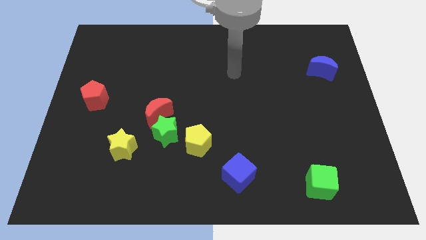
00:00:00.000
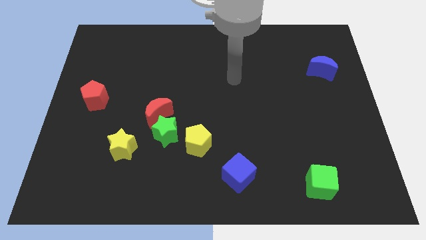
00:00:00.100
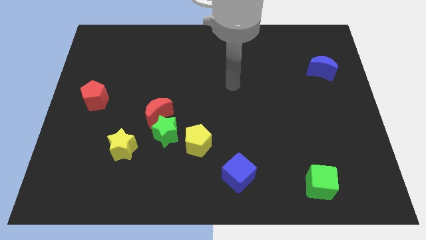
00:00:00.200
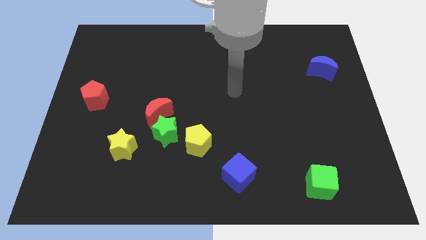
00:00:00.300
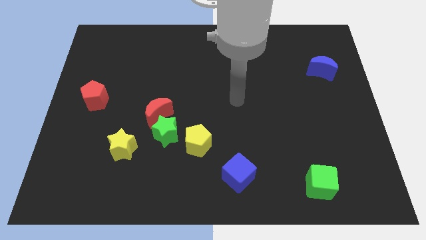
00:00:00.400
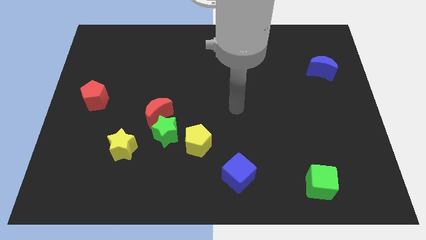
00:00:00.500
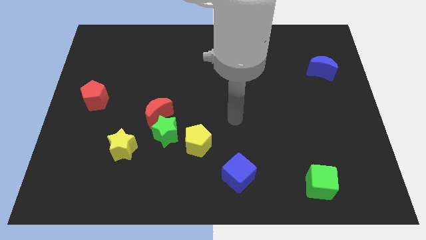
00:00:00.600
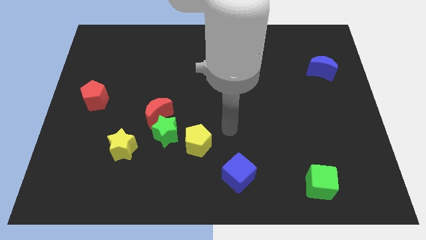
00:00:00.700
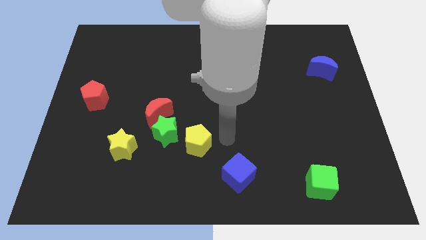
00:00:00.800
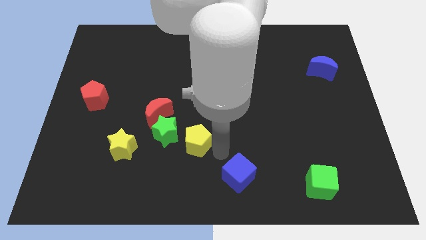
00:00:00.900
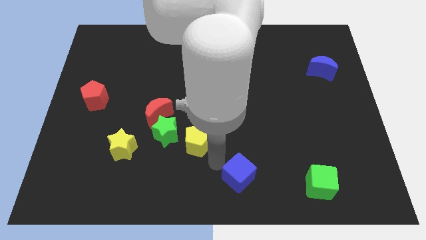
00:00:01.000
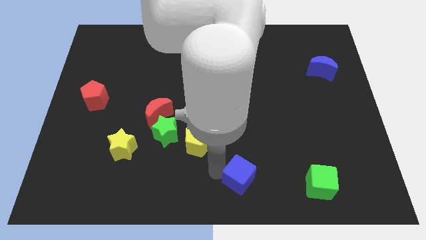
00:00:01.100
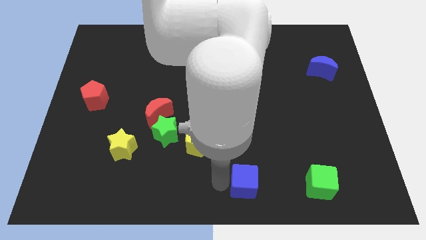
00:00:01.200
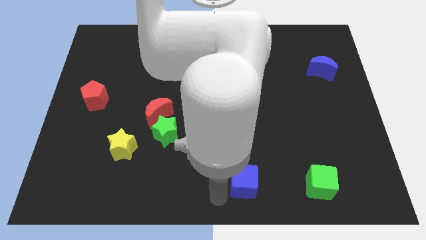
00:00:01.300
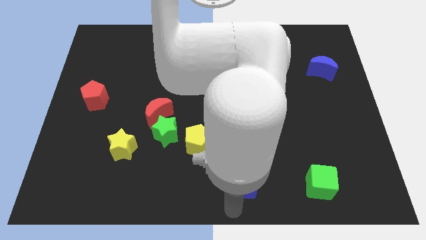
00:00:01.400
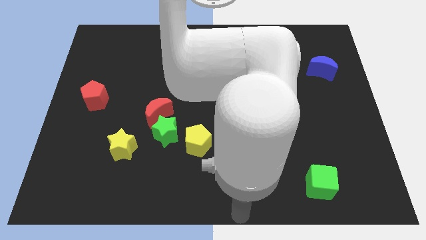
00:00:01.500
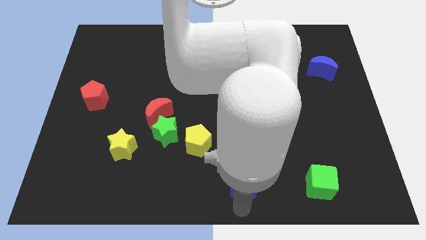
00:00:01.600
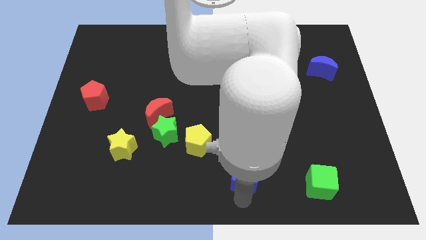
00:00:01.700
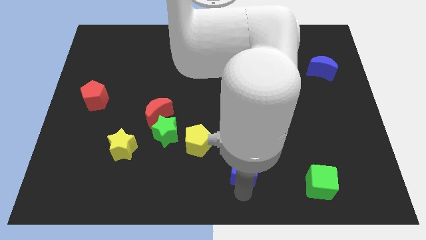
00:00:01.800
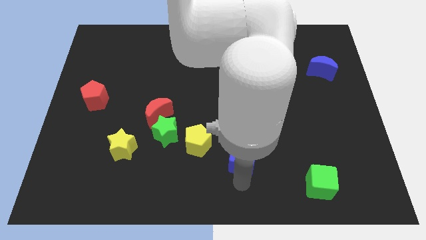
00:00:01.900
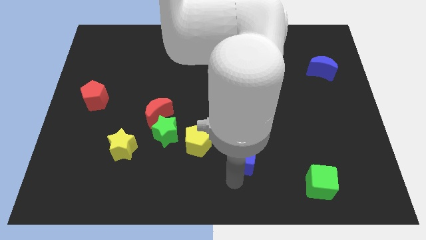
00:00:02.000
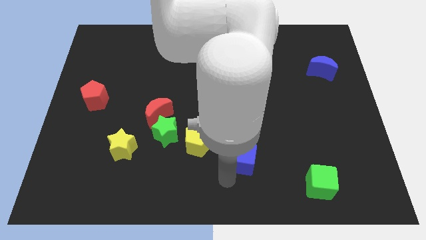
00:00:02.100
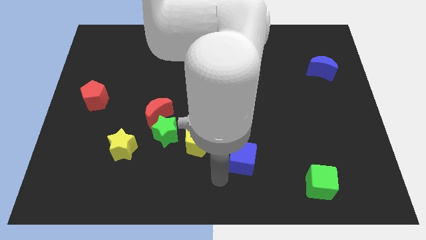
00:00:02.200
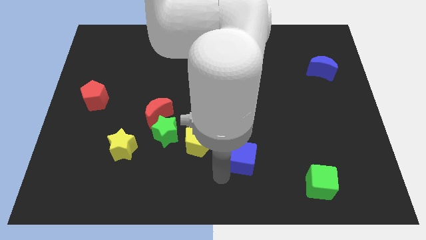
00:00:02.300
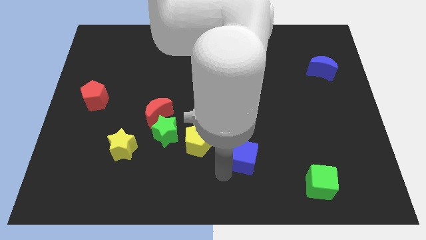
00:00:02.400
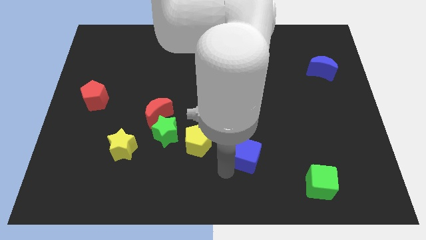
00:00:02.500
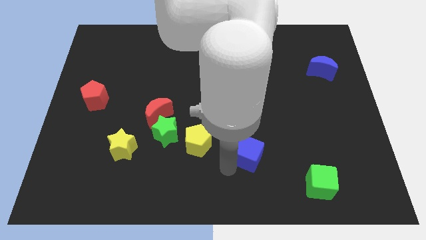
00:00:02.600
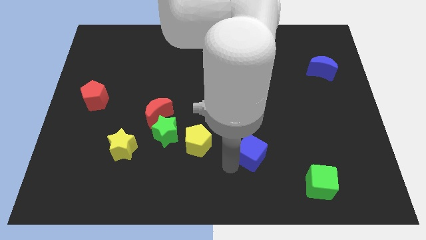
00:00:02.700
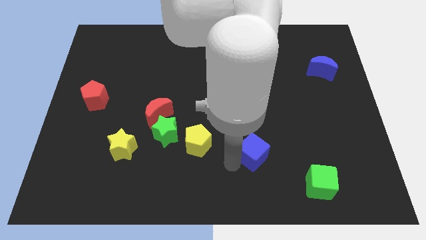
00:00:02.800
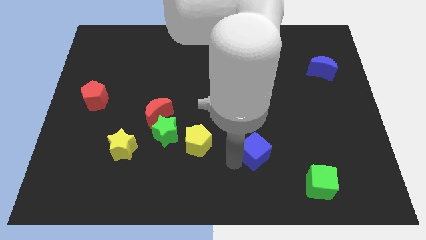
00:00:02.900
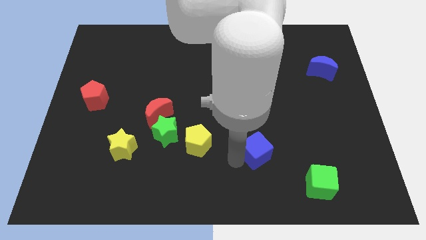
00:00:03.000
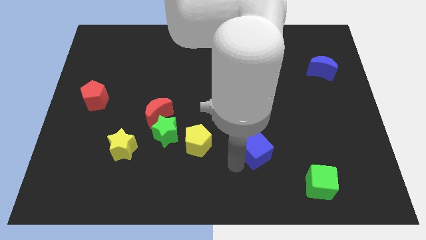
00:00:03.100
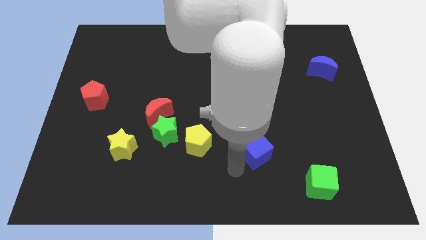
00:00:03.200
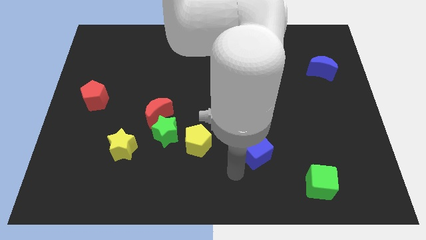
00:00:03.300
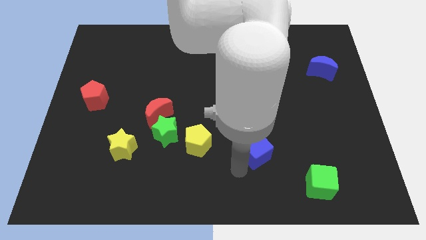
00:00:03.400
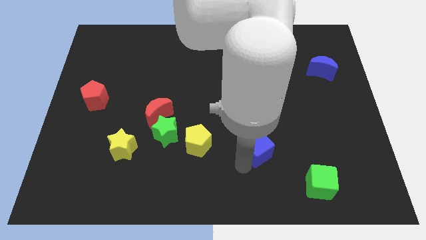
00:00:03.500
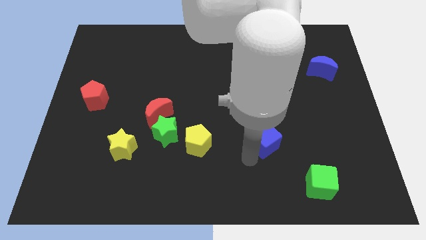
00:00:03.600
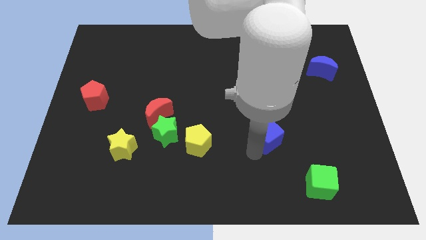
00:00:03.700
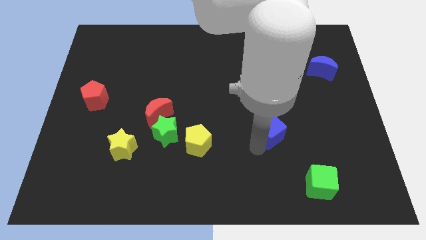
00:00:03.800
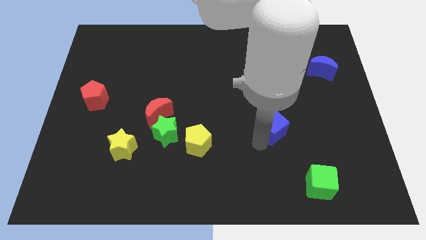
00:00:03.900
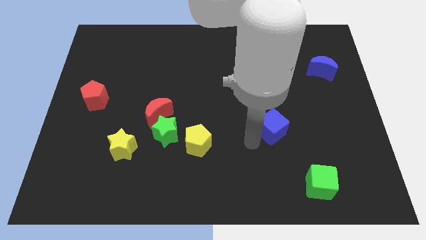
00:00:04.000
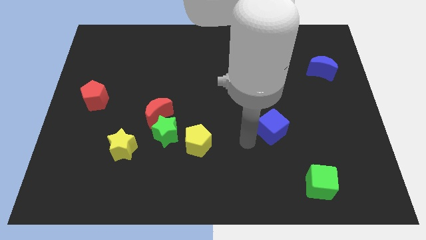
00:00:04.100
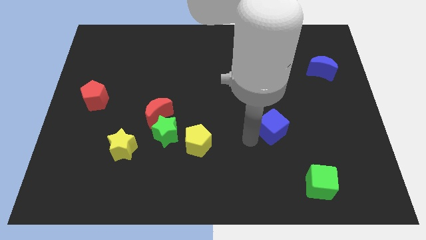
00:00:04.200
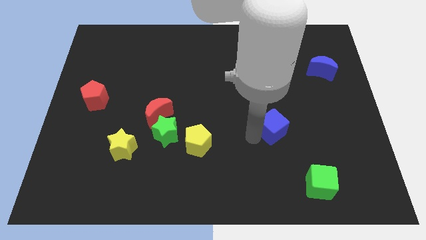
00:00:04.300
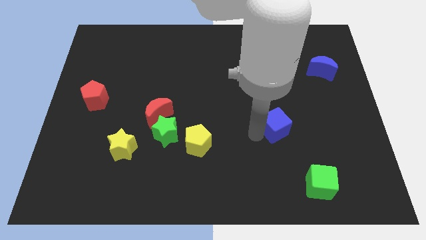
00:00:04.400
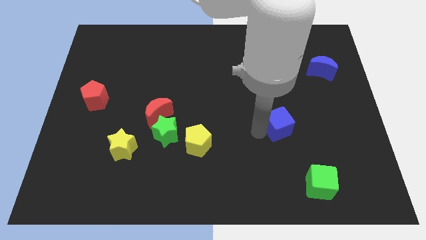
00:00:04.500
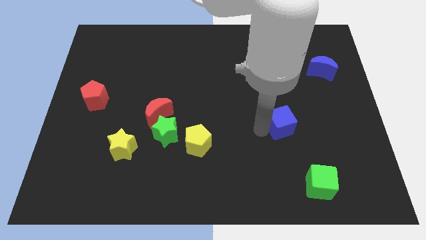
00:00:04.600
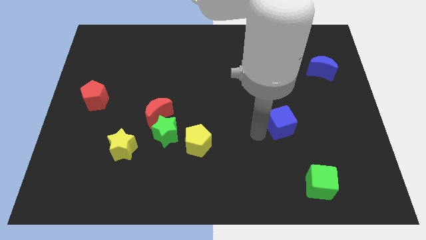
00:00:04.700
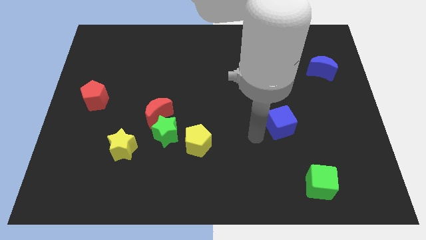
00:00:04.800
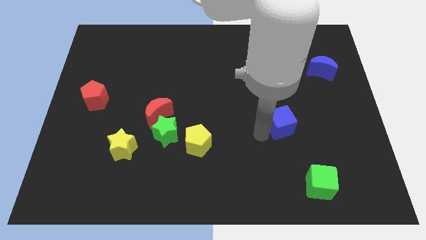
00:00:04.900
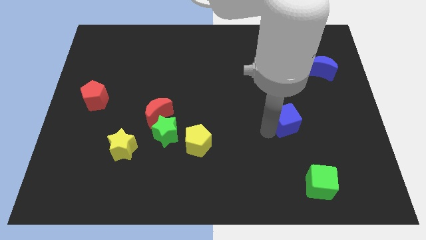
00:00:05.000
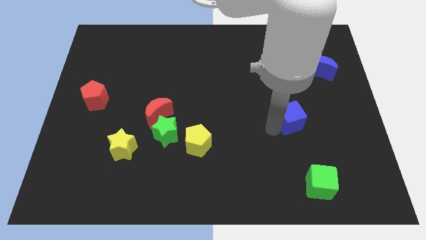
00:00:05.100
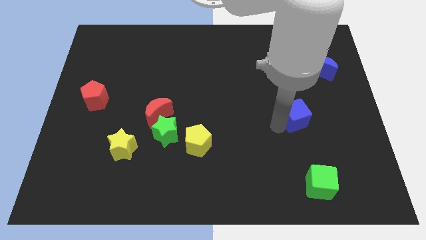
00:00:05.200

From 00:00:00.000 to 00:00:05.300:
push the blue cube diagonally up and to the right

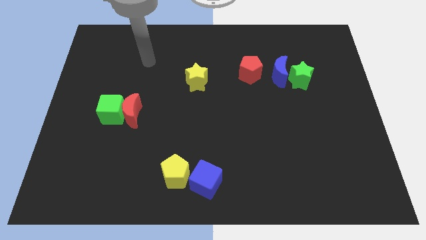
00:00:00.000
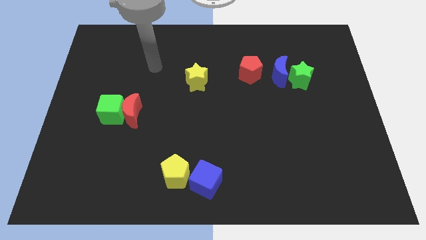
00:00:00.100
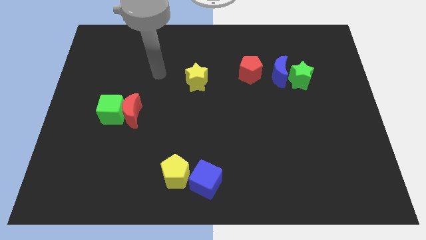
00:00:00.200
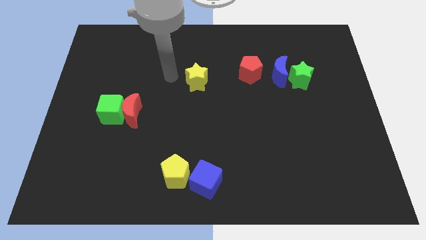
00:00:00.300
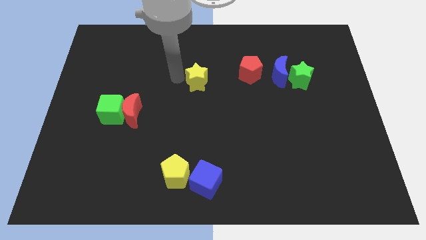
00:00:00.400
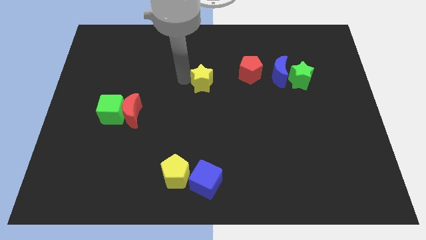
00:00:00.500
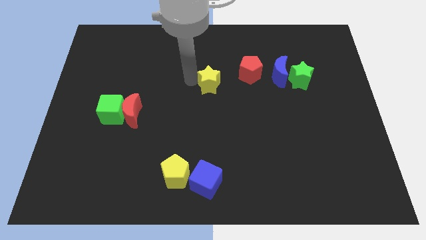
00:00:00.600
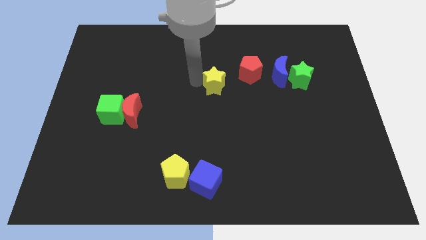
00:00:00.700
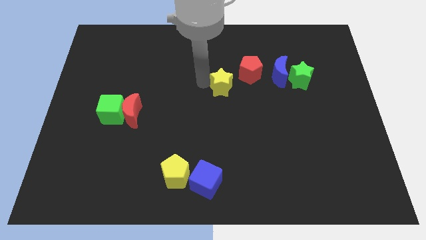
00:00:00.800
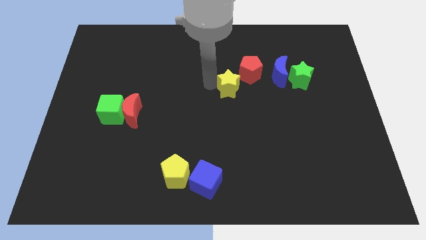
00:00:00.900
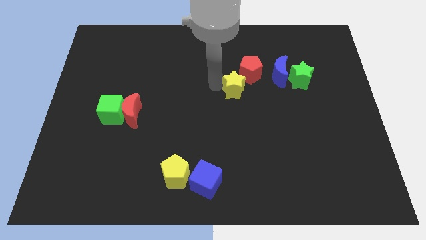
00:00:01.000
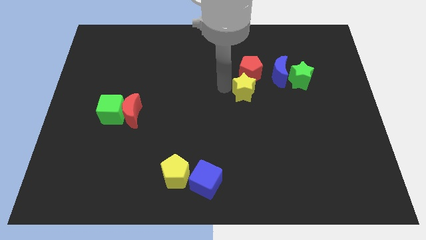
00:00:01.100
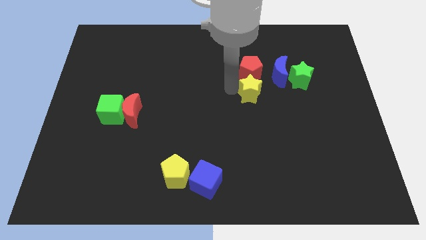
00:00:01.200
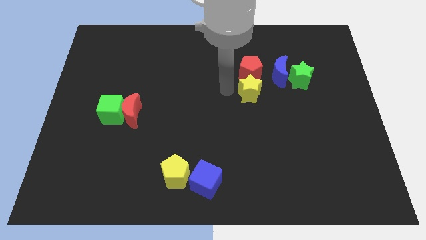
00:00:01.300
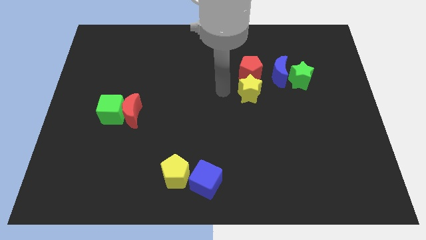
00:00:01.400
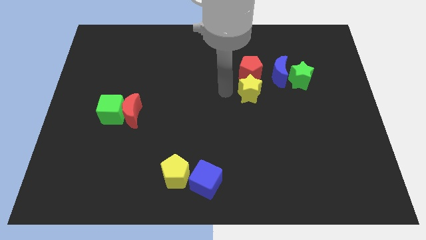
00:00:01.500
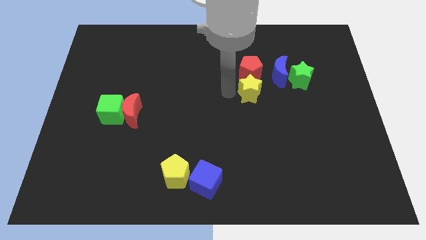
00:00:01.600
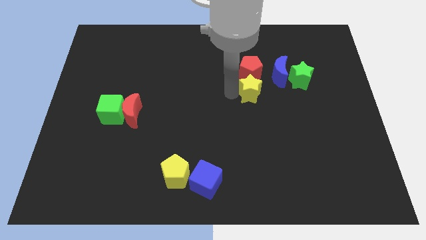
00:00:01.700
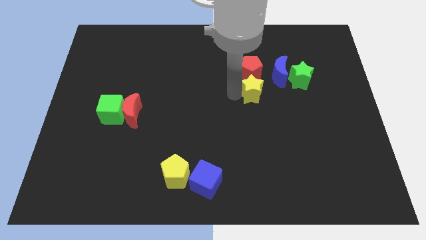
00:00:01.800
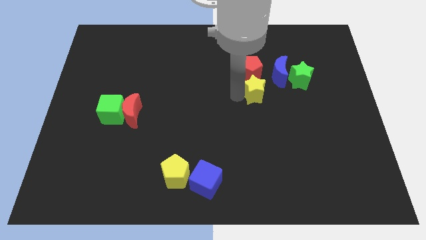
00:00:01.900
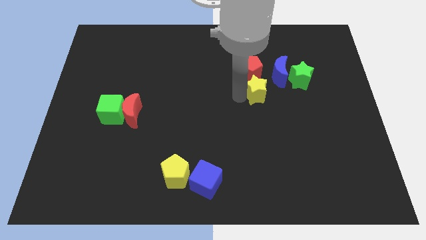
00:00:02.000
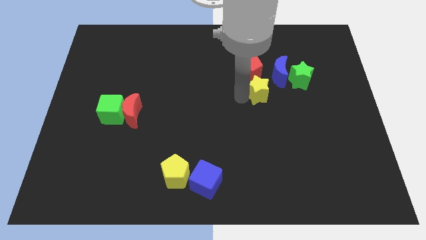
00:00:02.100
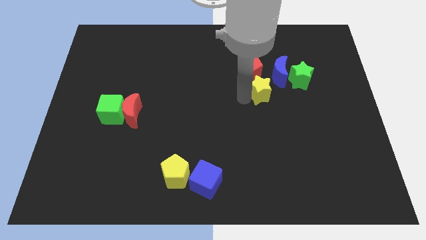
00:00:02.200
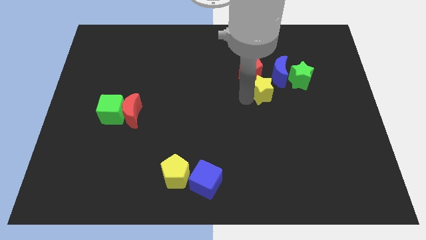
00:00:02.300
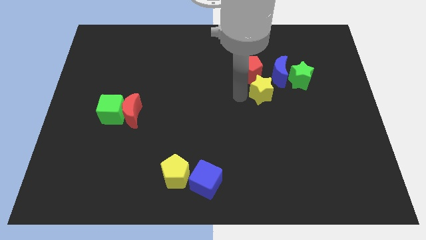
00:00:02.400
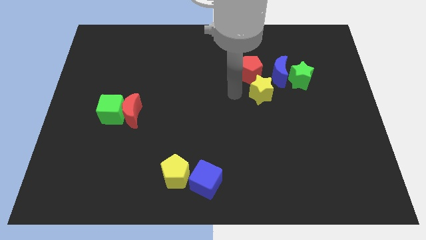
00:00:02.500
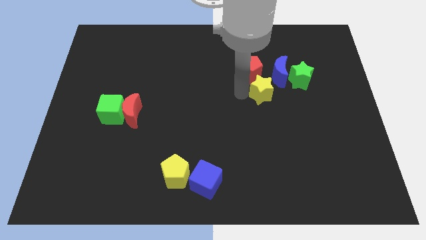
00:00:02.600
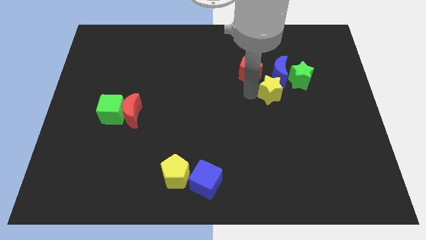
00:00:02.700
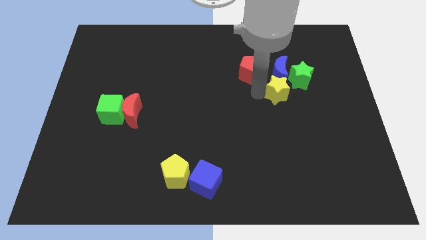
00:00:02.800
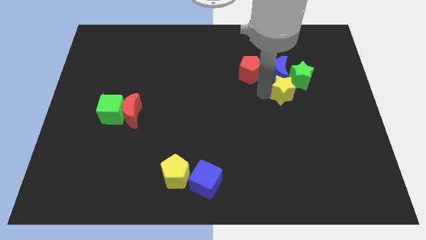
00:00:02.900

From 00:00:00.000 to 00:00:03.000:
push the yellow star to the right
